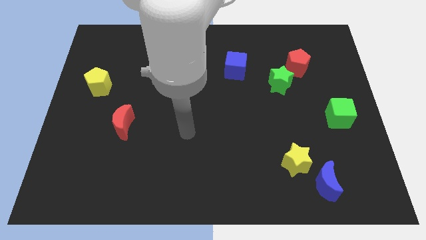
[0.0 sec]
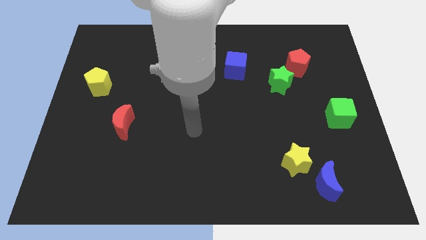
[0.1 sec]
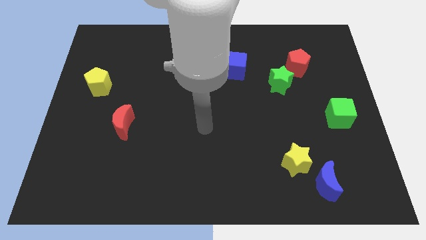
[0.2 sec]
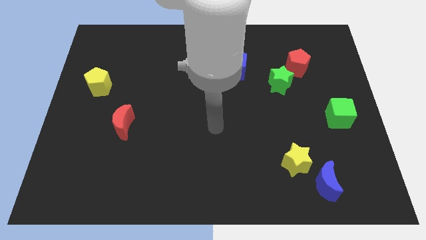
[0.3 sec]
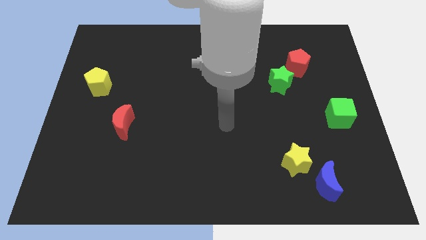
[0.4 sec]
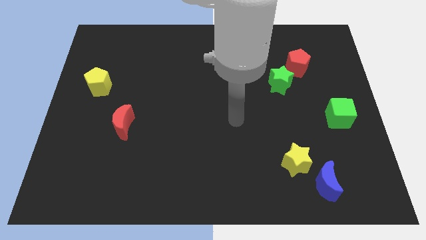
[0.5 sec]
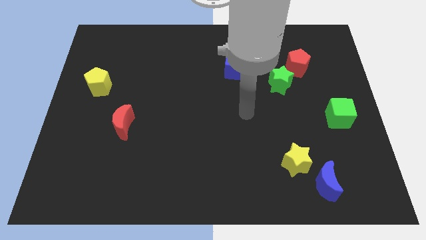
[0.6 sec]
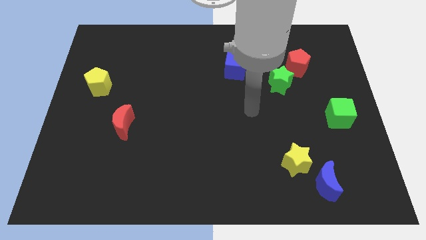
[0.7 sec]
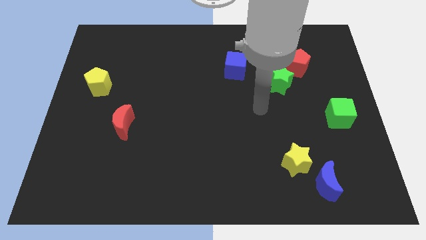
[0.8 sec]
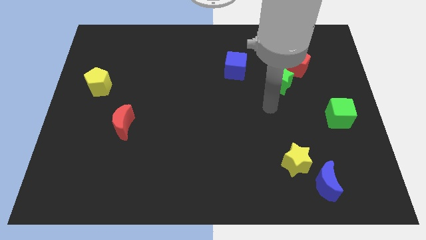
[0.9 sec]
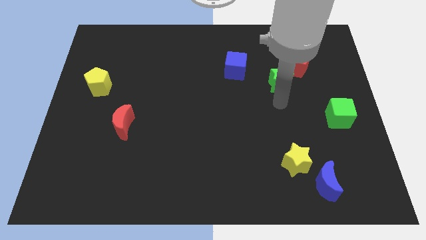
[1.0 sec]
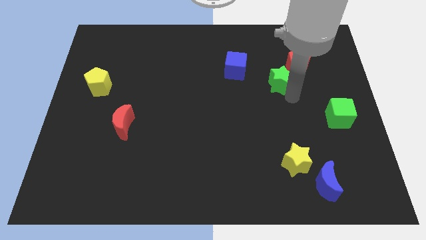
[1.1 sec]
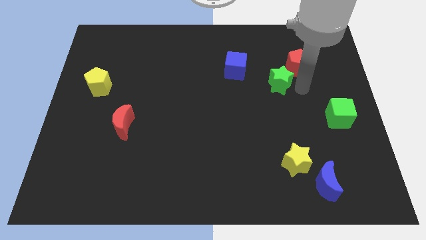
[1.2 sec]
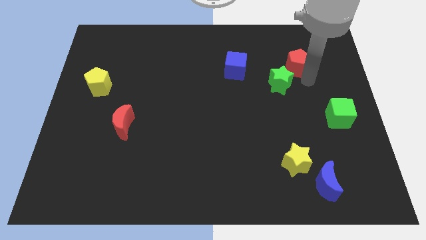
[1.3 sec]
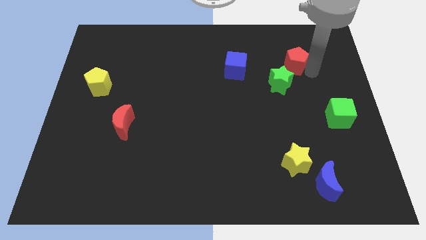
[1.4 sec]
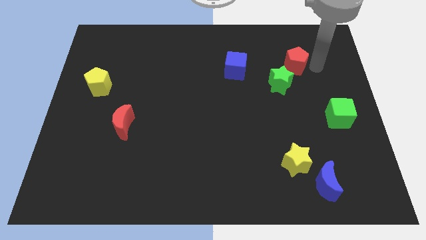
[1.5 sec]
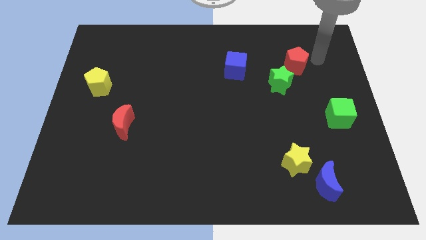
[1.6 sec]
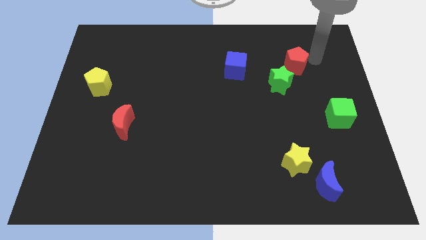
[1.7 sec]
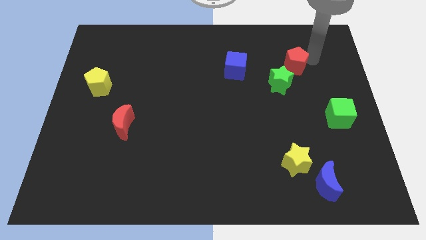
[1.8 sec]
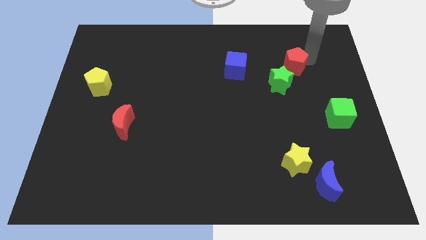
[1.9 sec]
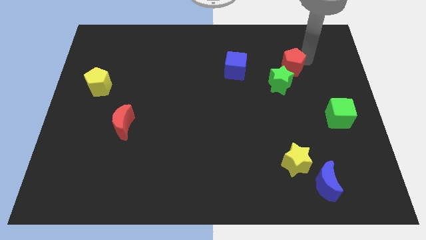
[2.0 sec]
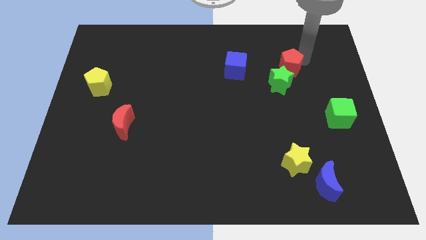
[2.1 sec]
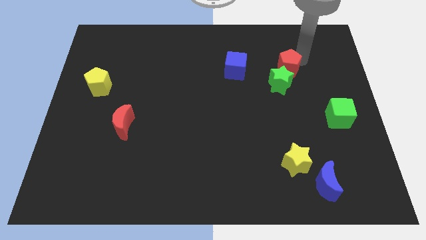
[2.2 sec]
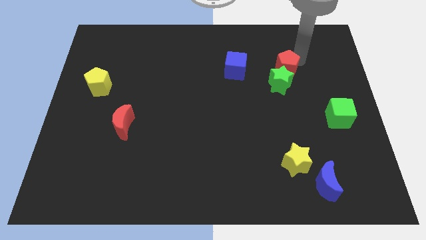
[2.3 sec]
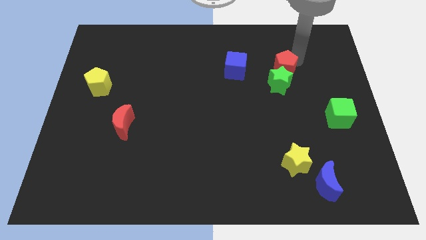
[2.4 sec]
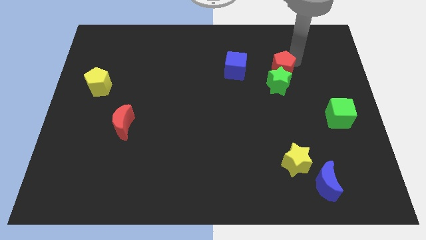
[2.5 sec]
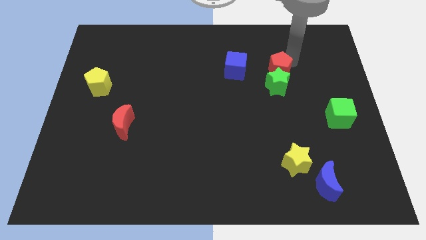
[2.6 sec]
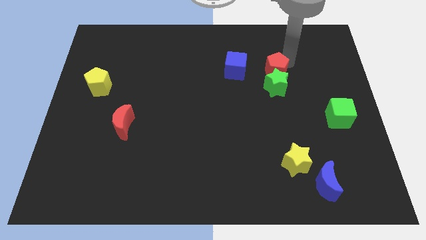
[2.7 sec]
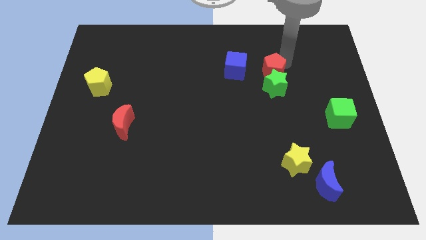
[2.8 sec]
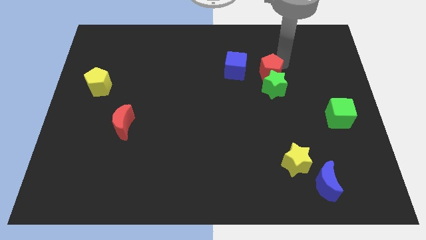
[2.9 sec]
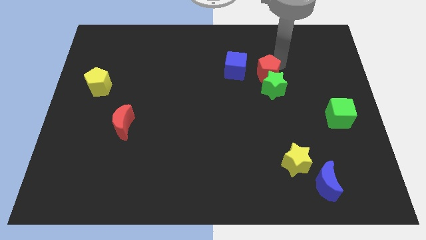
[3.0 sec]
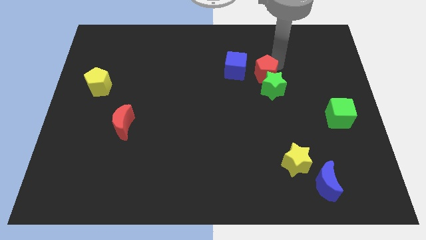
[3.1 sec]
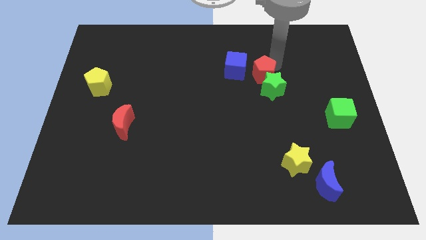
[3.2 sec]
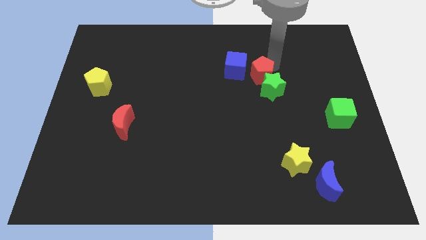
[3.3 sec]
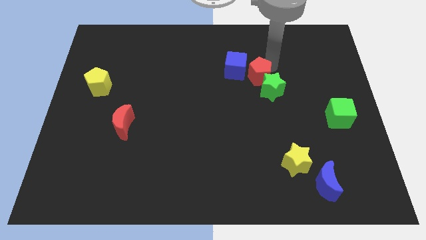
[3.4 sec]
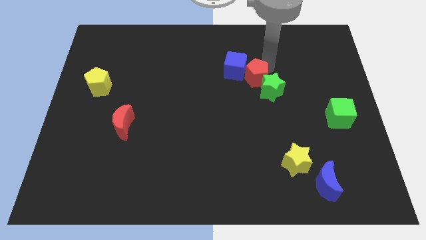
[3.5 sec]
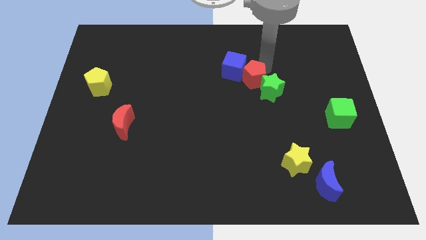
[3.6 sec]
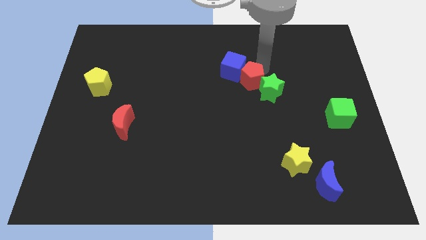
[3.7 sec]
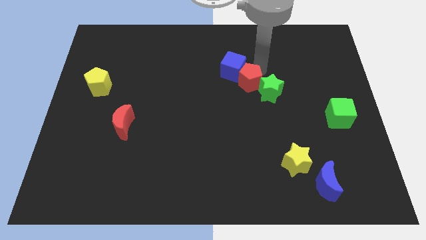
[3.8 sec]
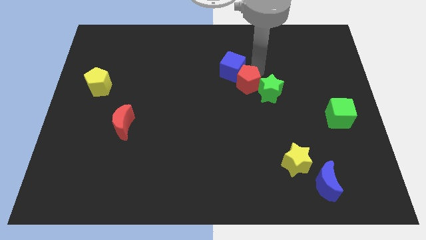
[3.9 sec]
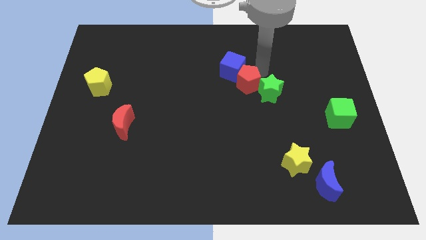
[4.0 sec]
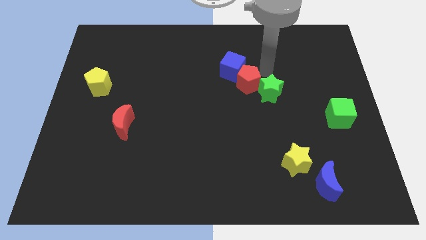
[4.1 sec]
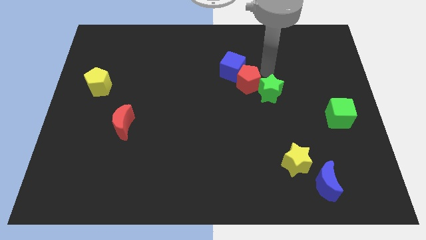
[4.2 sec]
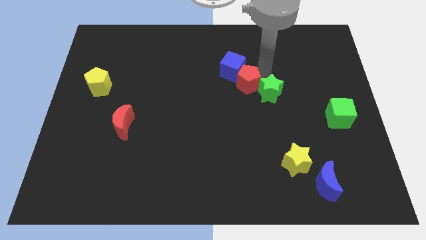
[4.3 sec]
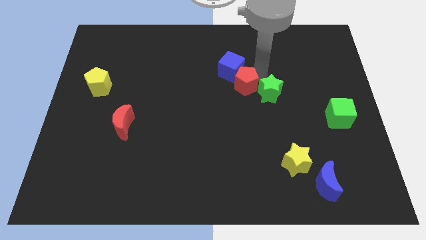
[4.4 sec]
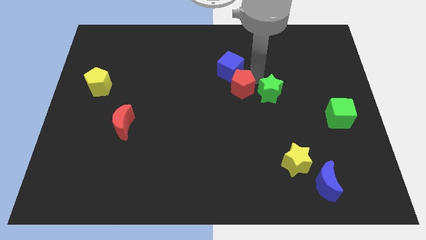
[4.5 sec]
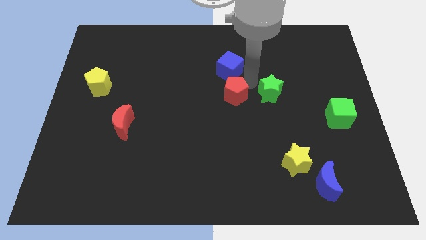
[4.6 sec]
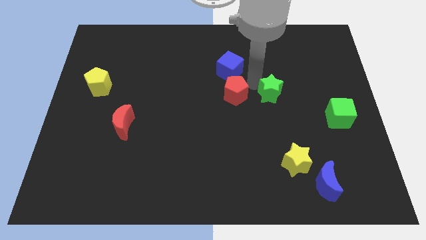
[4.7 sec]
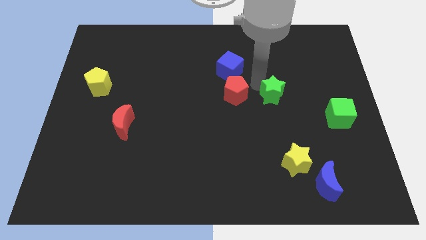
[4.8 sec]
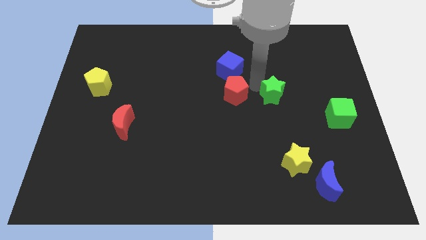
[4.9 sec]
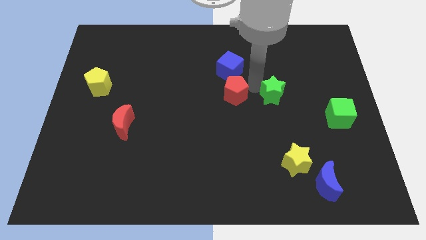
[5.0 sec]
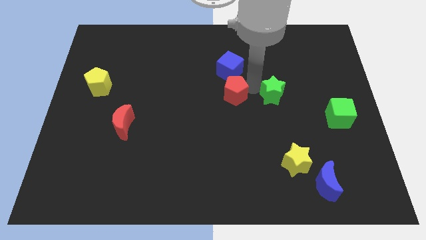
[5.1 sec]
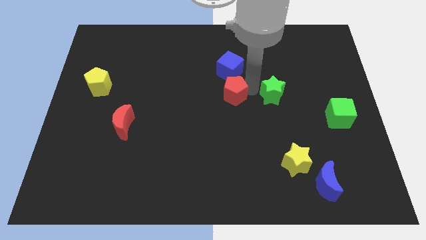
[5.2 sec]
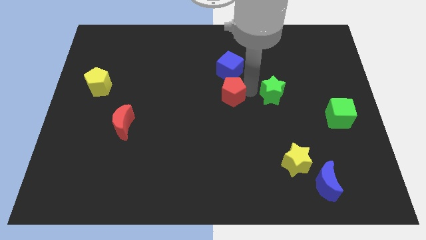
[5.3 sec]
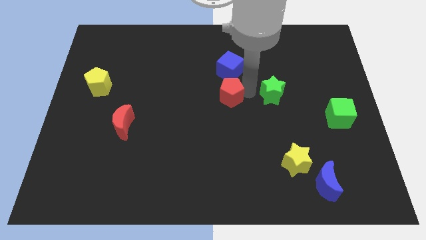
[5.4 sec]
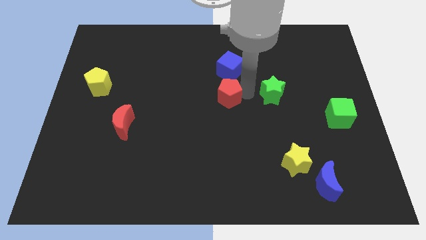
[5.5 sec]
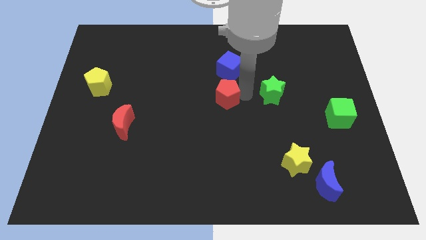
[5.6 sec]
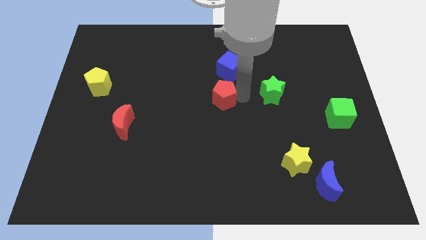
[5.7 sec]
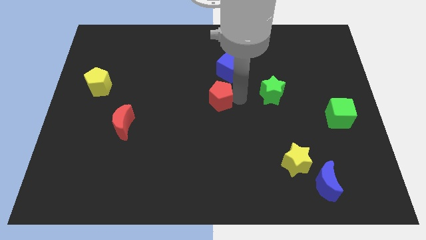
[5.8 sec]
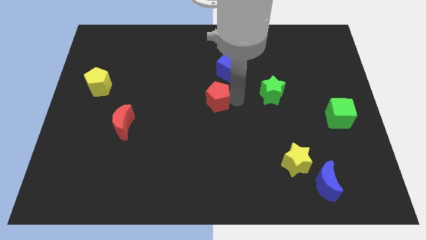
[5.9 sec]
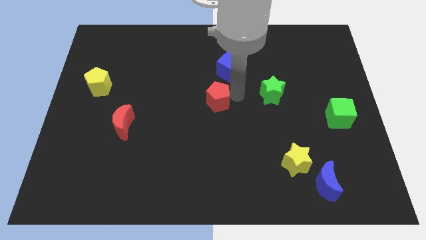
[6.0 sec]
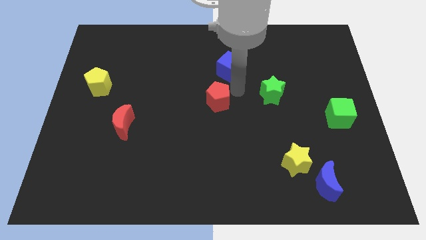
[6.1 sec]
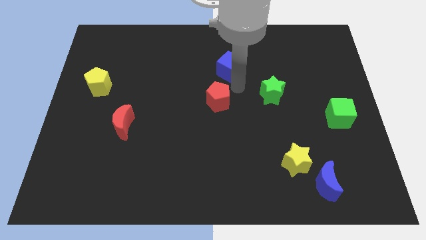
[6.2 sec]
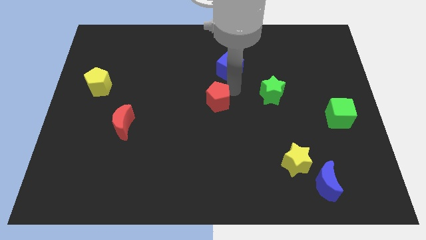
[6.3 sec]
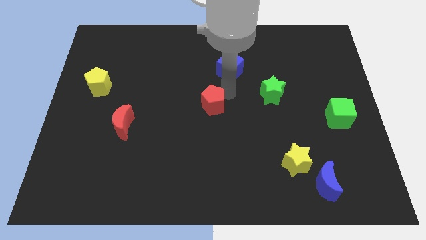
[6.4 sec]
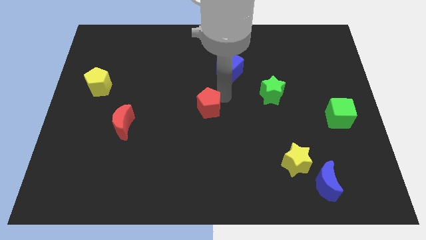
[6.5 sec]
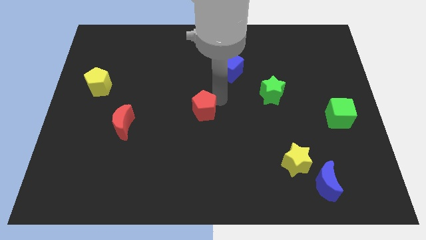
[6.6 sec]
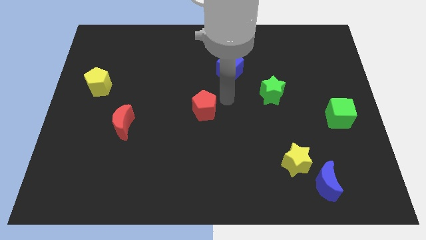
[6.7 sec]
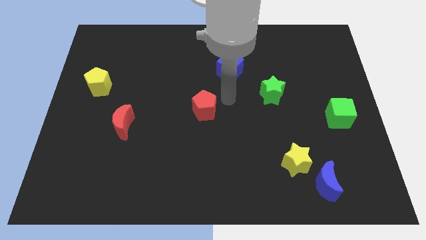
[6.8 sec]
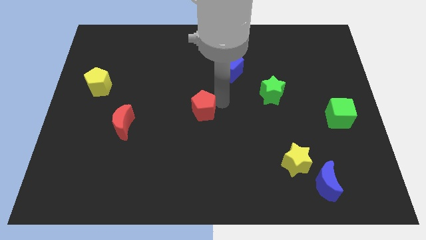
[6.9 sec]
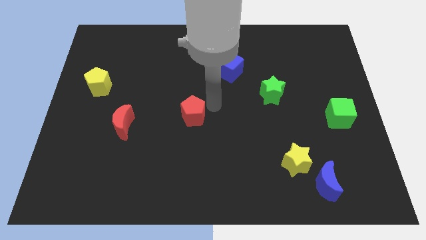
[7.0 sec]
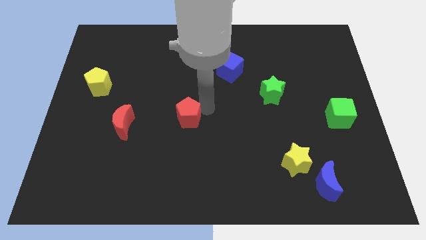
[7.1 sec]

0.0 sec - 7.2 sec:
put the red pentagon to the right side of the red moon

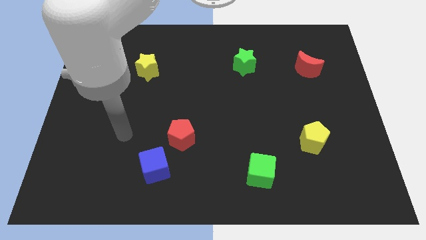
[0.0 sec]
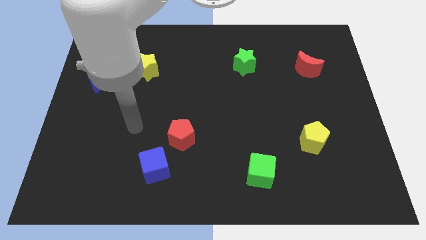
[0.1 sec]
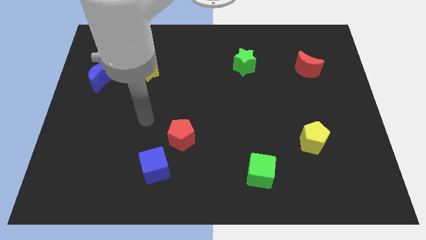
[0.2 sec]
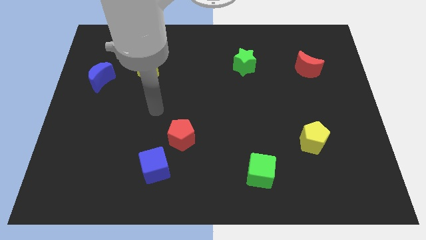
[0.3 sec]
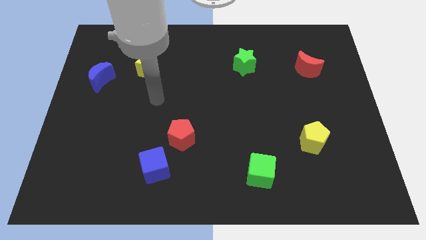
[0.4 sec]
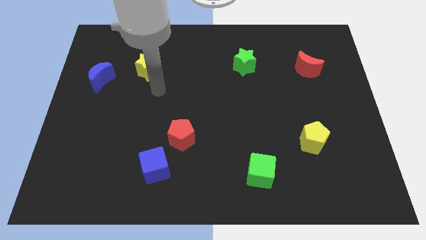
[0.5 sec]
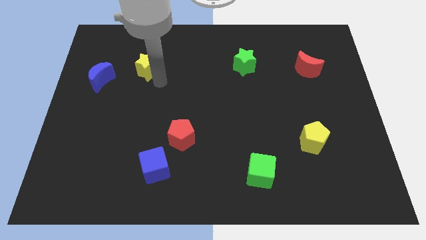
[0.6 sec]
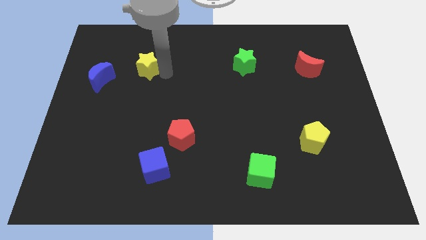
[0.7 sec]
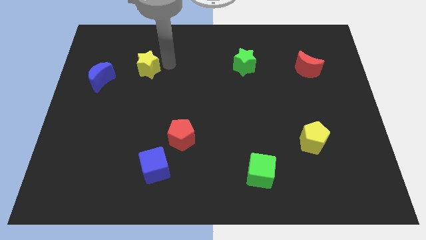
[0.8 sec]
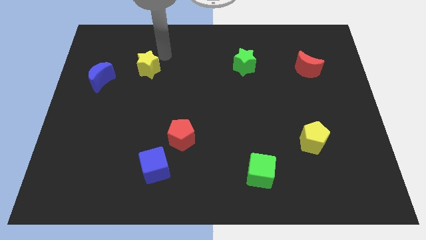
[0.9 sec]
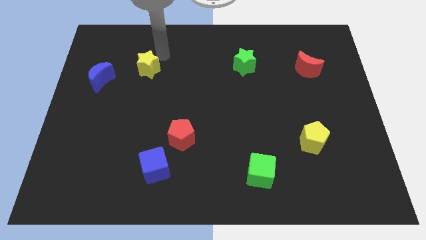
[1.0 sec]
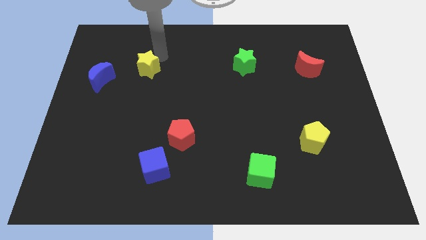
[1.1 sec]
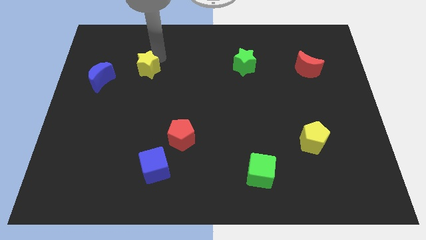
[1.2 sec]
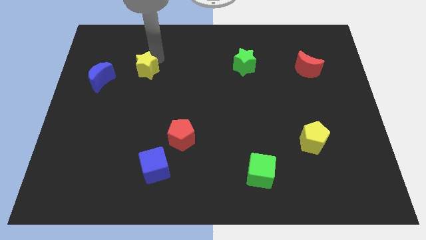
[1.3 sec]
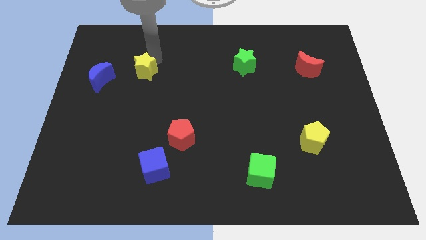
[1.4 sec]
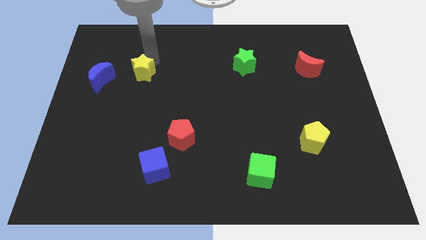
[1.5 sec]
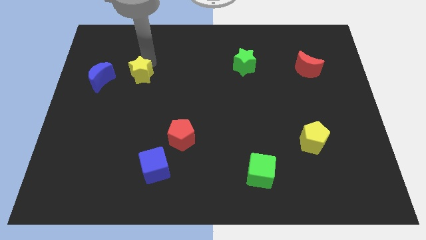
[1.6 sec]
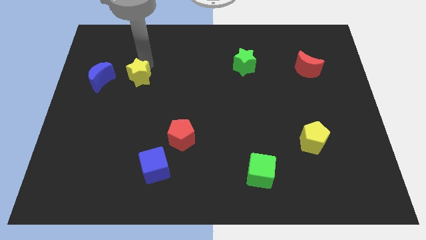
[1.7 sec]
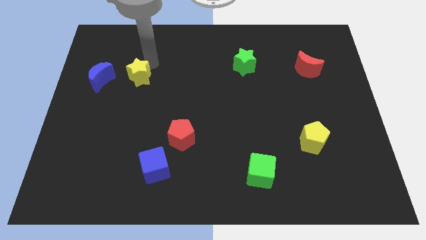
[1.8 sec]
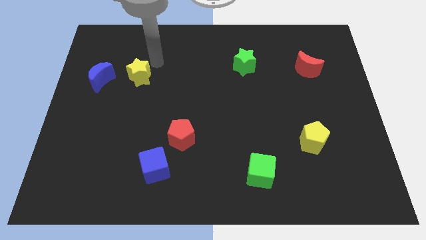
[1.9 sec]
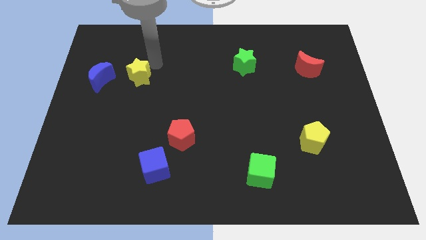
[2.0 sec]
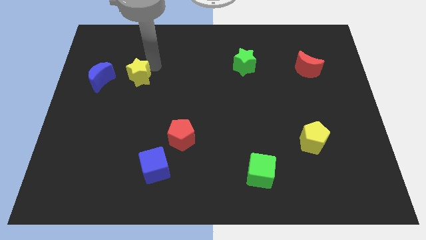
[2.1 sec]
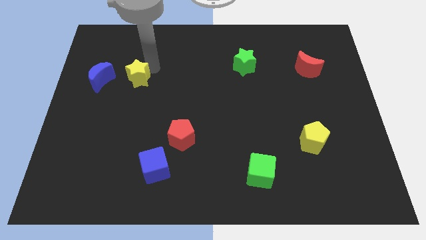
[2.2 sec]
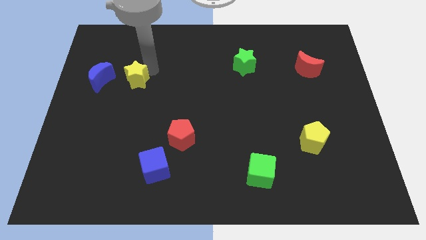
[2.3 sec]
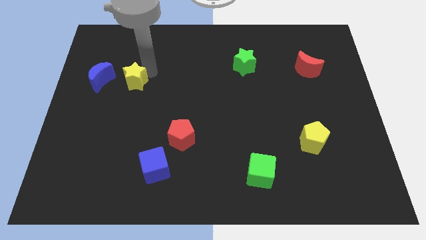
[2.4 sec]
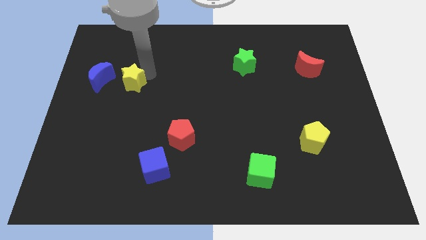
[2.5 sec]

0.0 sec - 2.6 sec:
push the yellow star to the bottom right side of the blue moon
